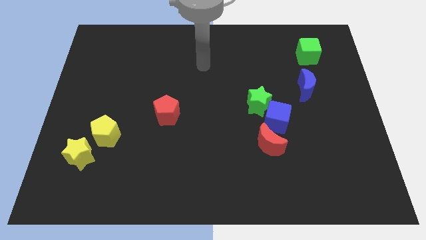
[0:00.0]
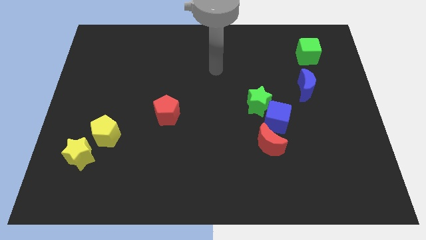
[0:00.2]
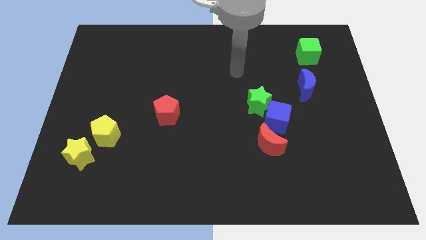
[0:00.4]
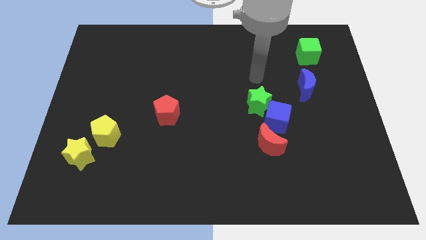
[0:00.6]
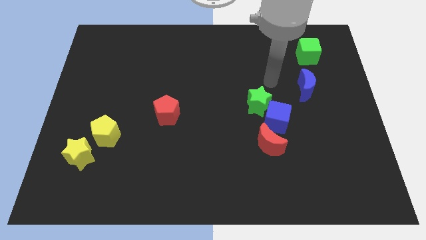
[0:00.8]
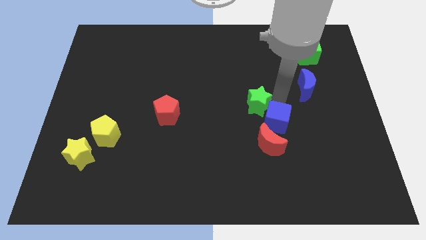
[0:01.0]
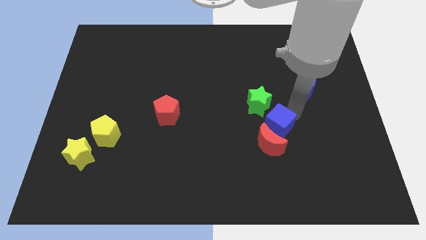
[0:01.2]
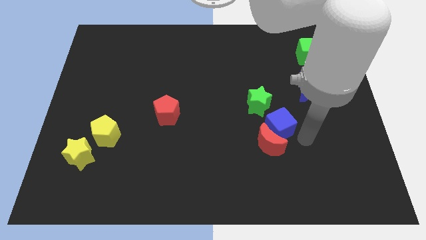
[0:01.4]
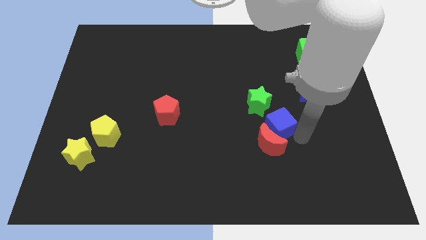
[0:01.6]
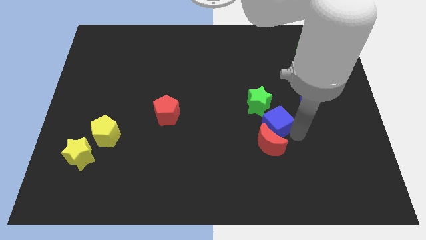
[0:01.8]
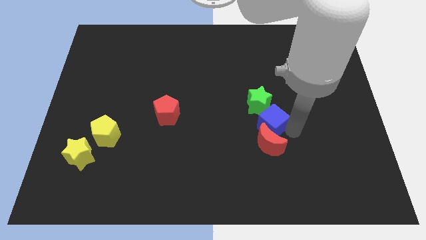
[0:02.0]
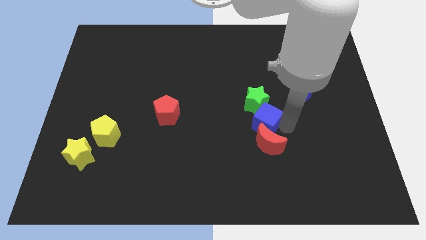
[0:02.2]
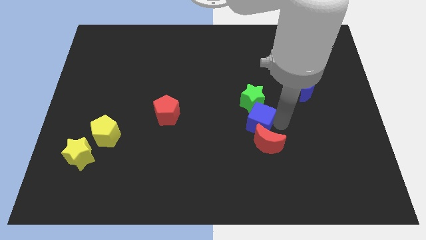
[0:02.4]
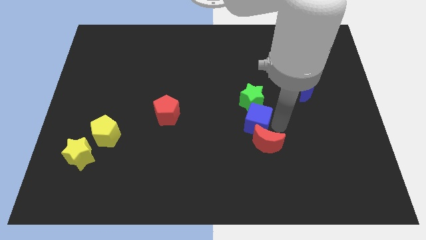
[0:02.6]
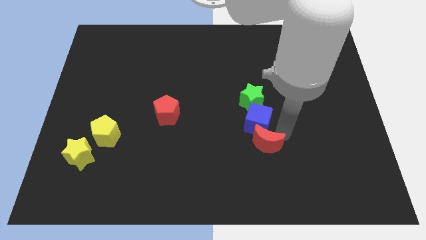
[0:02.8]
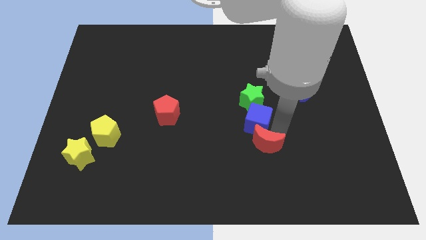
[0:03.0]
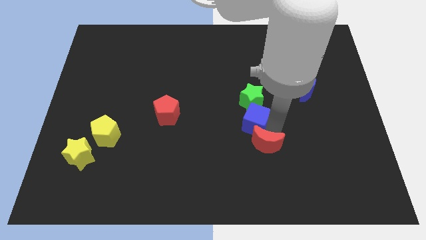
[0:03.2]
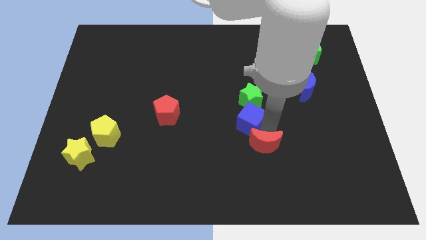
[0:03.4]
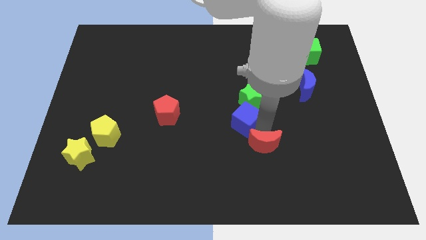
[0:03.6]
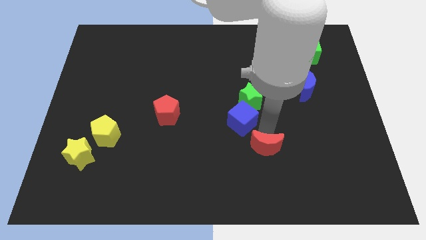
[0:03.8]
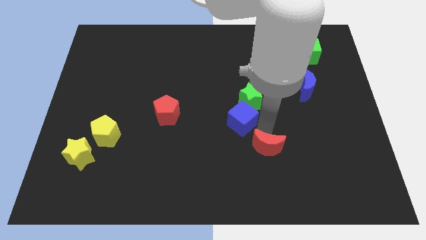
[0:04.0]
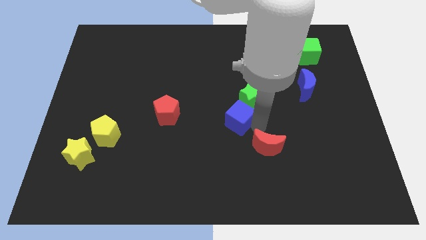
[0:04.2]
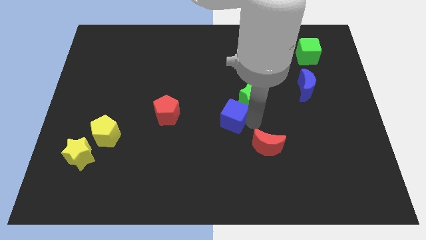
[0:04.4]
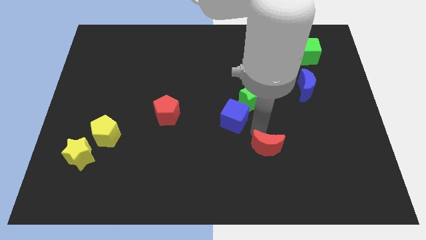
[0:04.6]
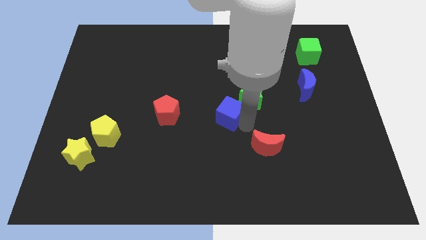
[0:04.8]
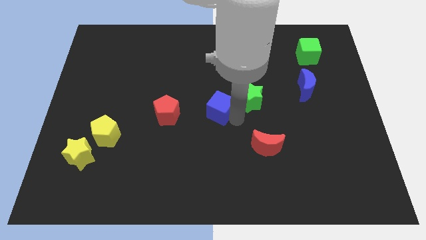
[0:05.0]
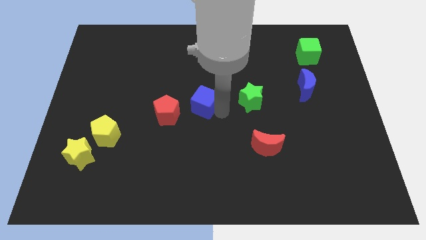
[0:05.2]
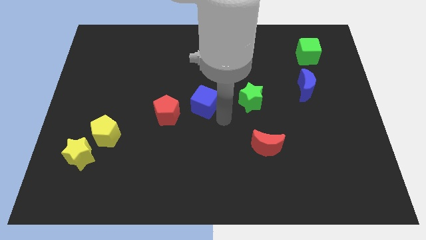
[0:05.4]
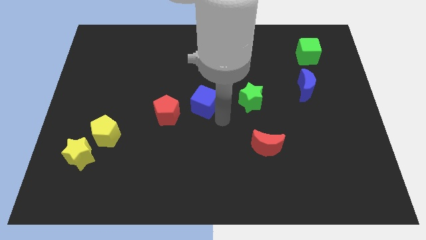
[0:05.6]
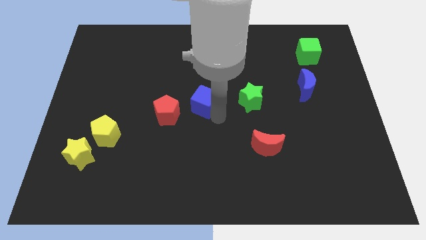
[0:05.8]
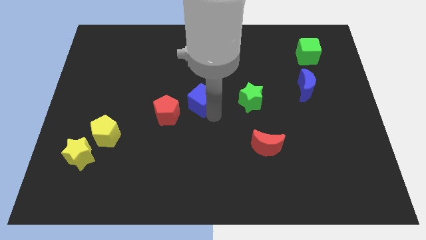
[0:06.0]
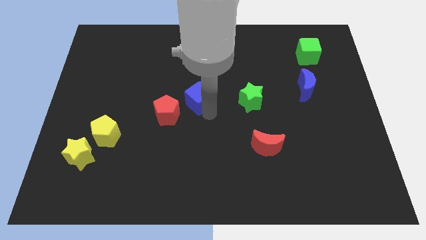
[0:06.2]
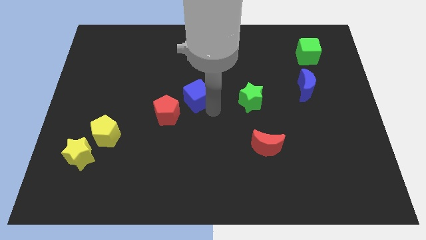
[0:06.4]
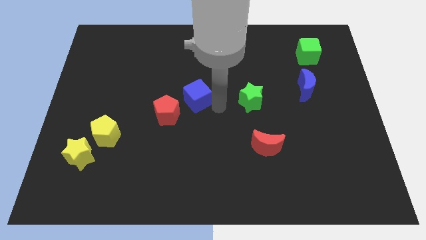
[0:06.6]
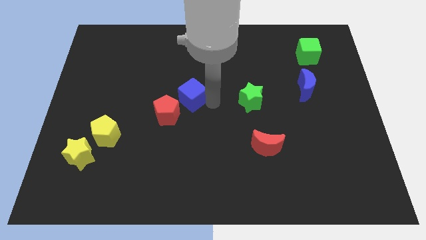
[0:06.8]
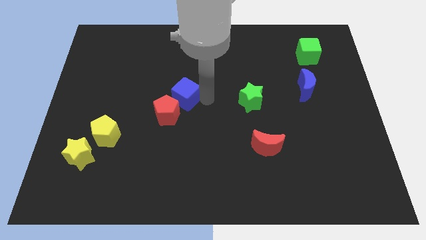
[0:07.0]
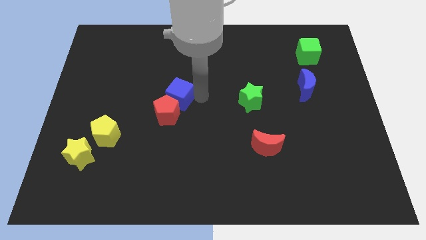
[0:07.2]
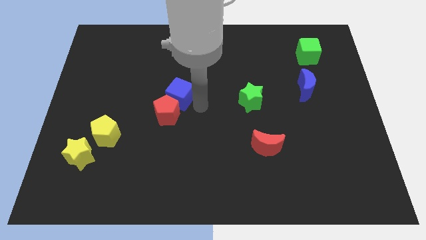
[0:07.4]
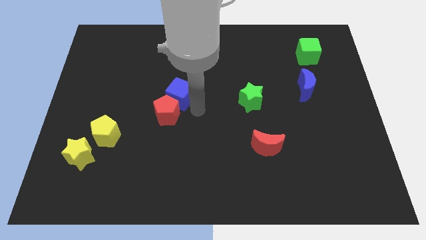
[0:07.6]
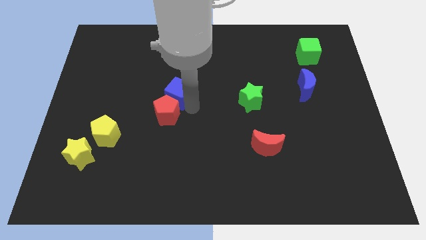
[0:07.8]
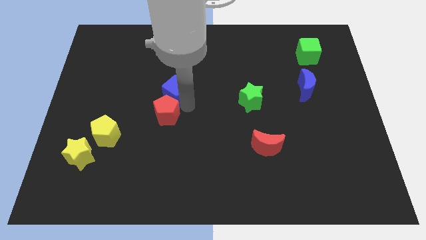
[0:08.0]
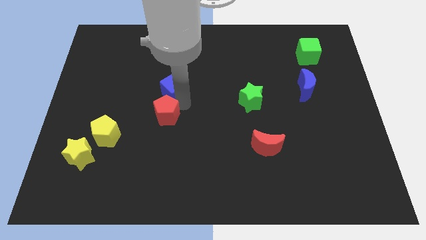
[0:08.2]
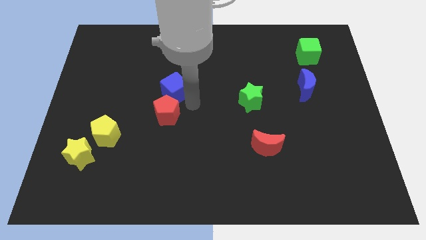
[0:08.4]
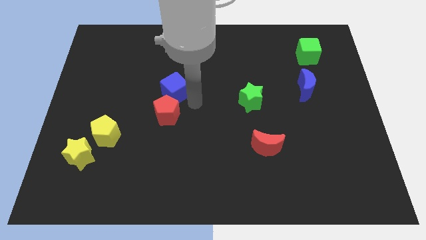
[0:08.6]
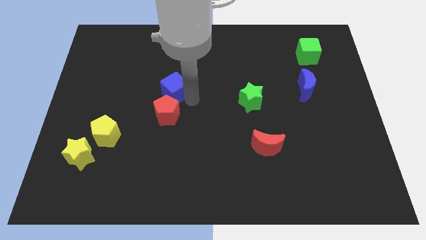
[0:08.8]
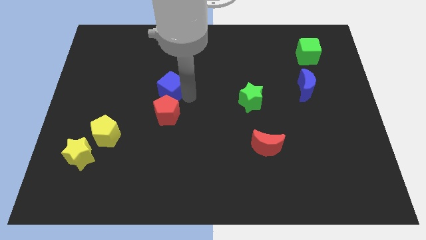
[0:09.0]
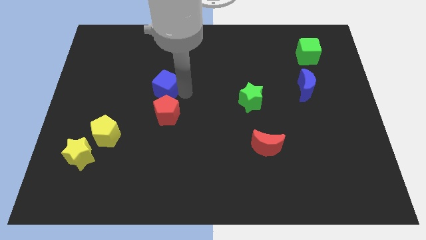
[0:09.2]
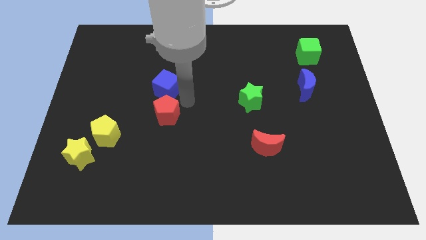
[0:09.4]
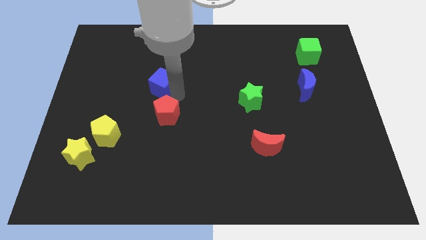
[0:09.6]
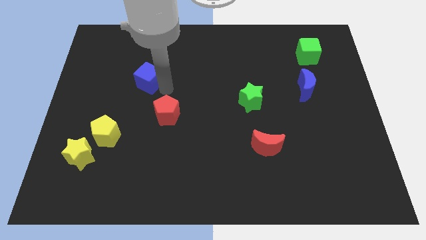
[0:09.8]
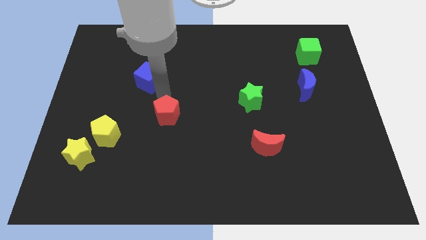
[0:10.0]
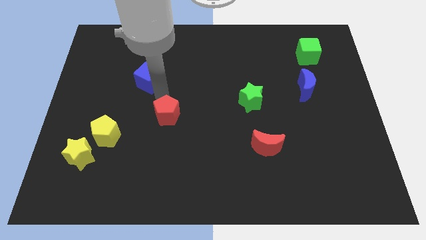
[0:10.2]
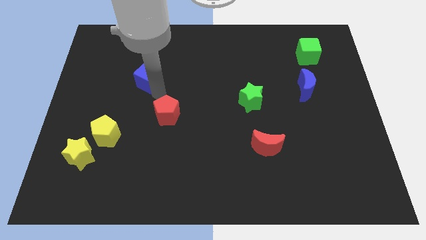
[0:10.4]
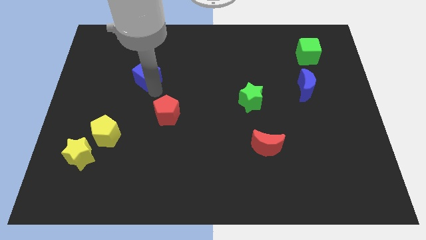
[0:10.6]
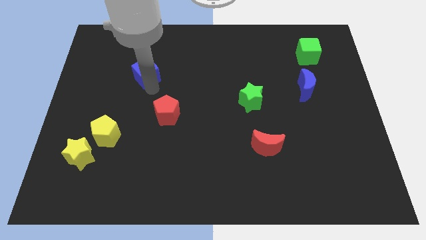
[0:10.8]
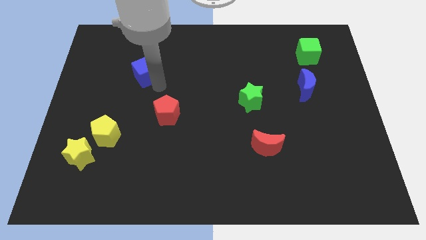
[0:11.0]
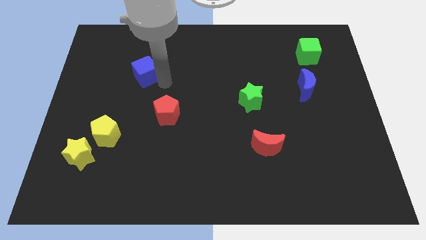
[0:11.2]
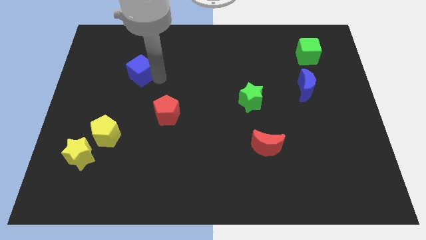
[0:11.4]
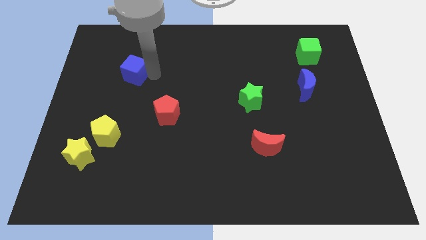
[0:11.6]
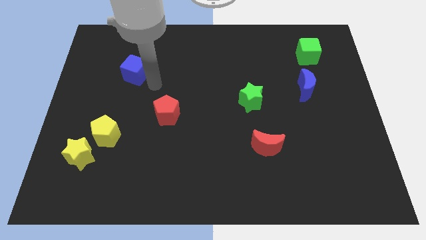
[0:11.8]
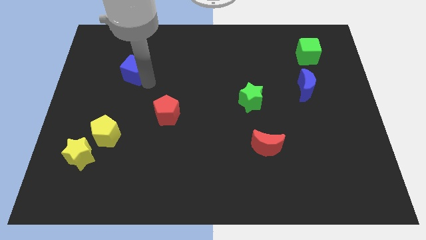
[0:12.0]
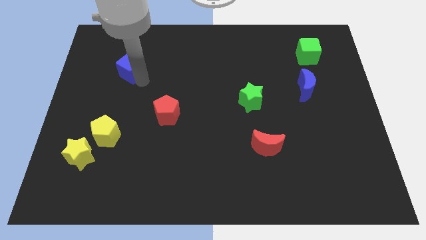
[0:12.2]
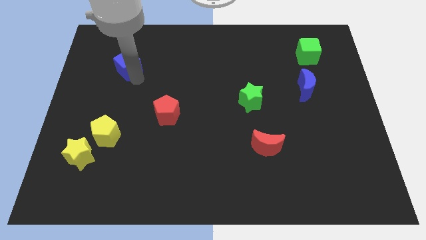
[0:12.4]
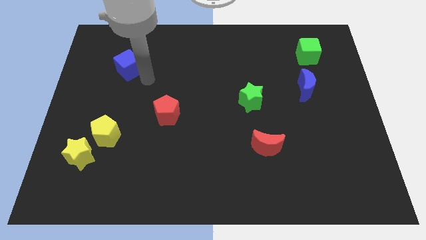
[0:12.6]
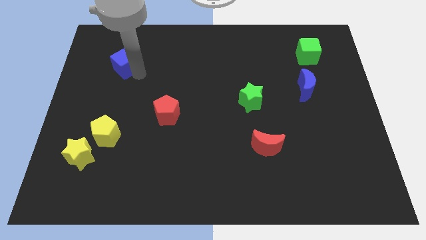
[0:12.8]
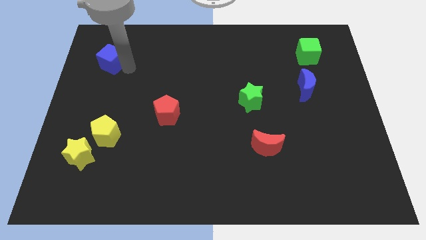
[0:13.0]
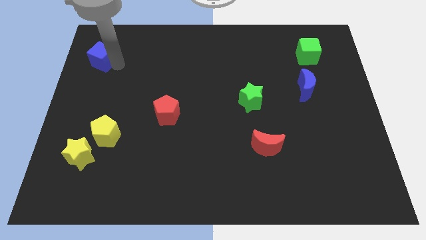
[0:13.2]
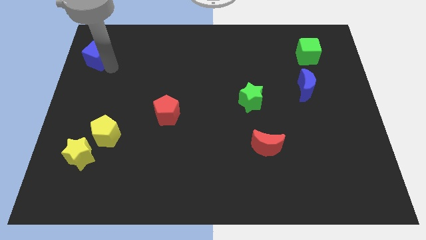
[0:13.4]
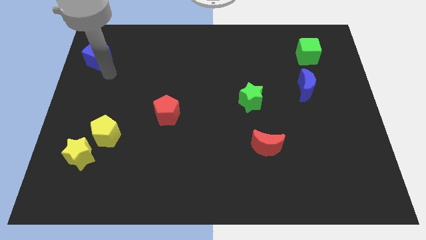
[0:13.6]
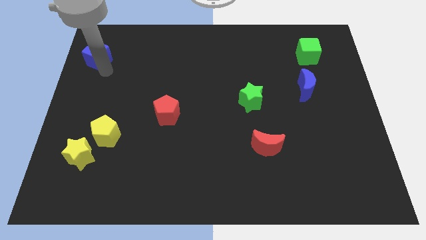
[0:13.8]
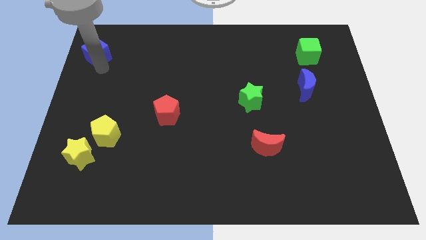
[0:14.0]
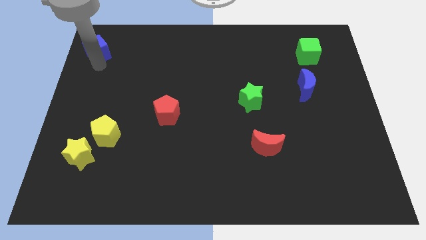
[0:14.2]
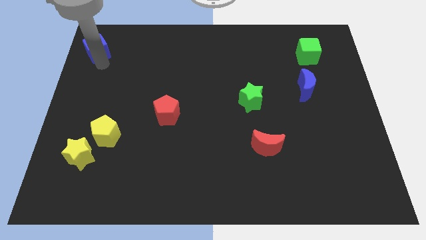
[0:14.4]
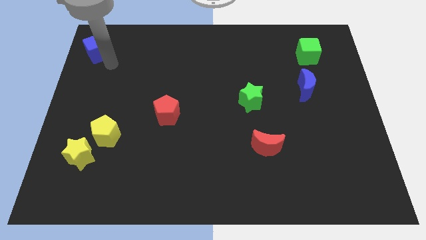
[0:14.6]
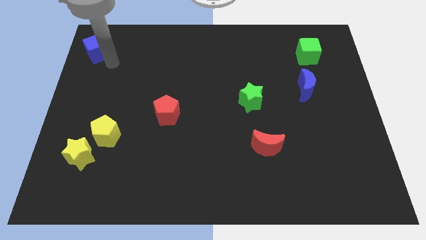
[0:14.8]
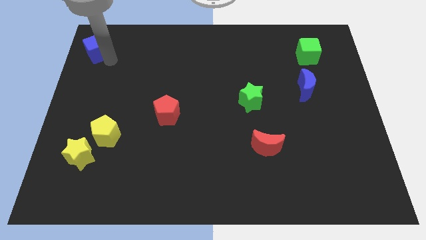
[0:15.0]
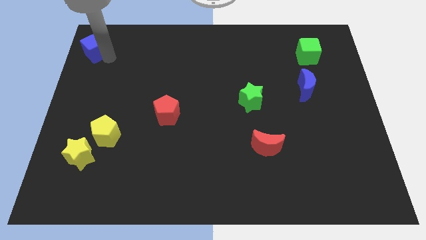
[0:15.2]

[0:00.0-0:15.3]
push the blue cube to the top left
